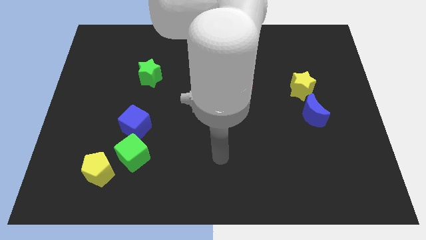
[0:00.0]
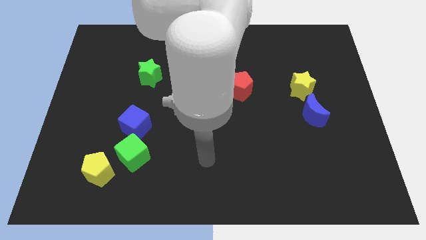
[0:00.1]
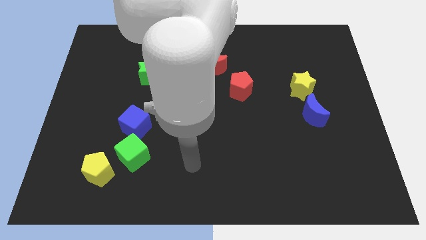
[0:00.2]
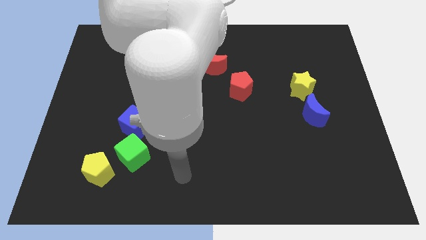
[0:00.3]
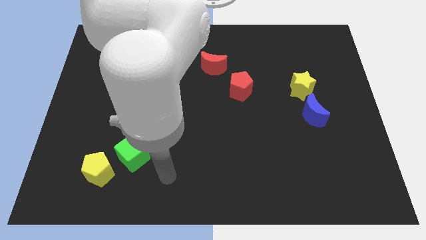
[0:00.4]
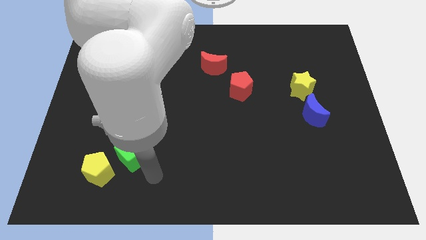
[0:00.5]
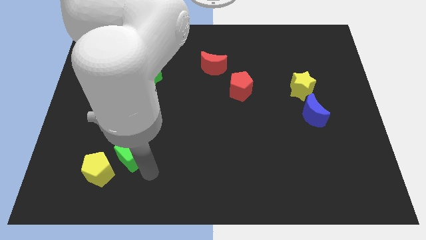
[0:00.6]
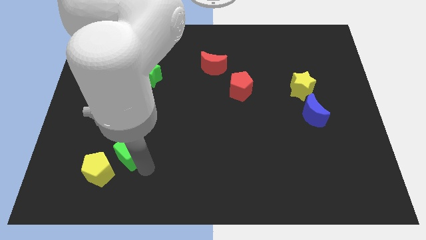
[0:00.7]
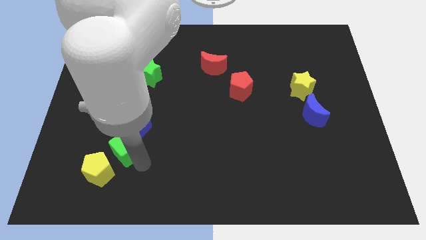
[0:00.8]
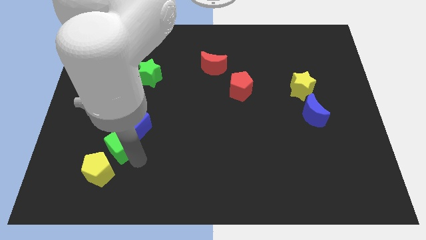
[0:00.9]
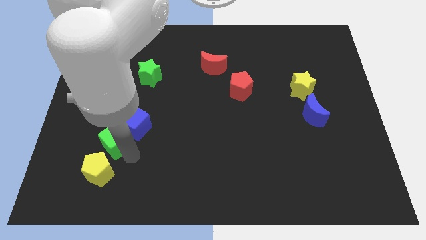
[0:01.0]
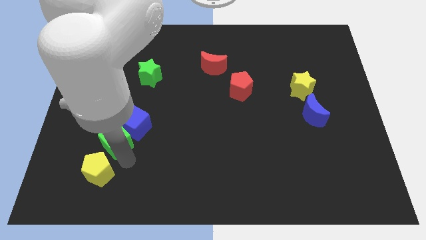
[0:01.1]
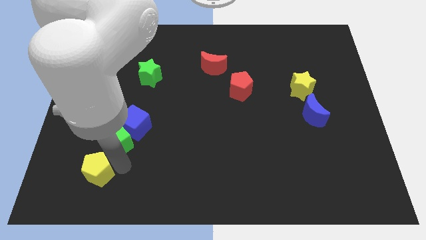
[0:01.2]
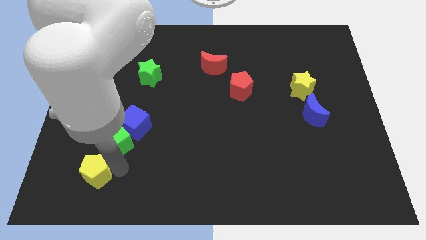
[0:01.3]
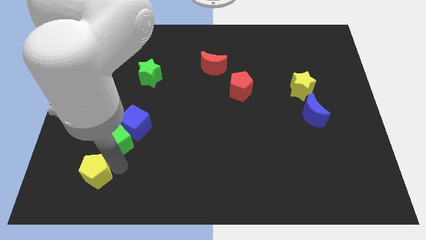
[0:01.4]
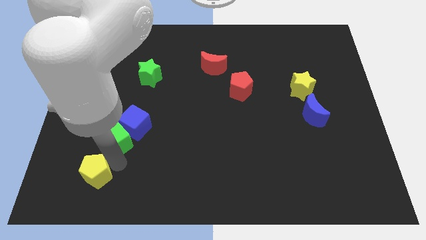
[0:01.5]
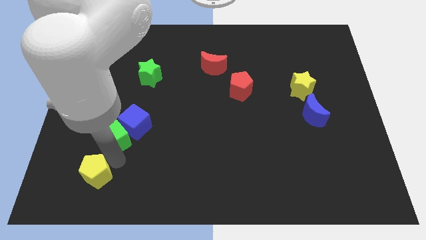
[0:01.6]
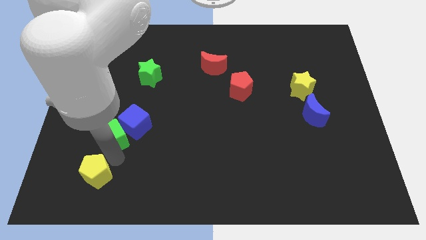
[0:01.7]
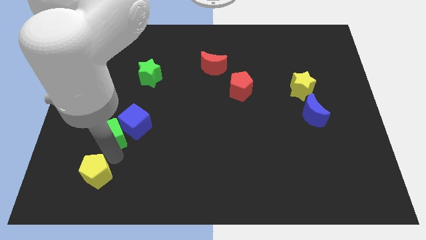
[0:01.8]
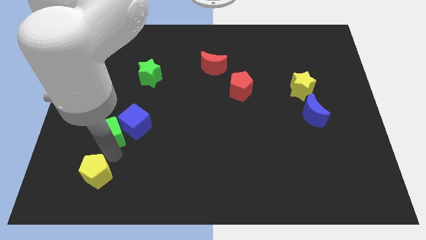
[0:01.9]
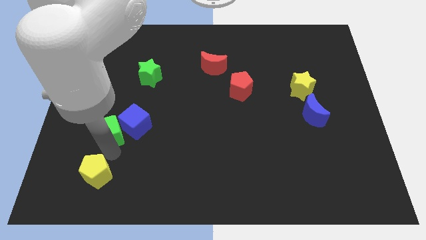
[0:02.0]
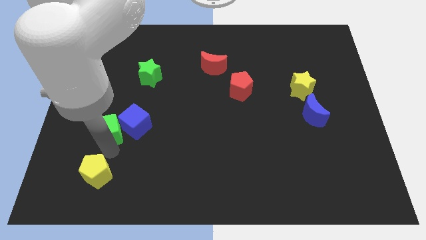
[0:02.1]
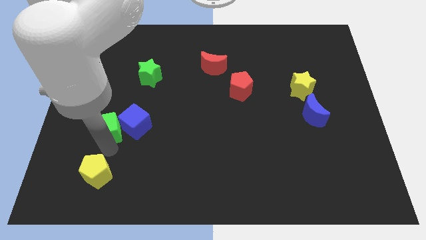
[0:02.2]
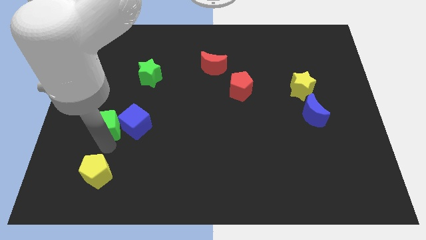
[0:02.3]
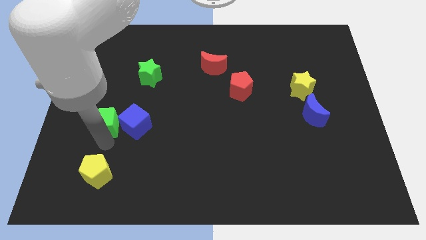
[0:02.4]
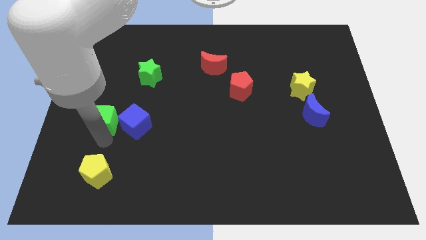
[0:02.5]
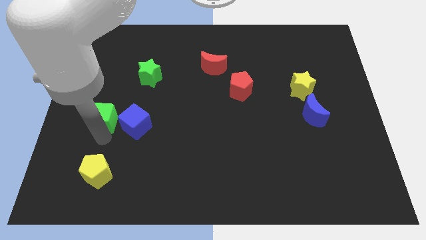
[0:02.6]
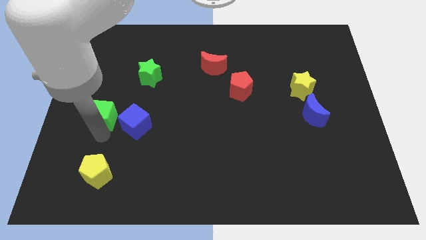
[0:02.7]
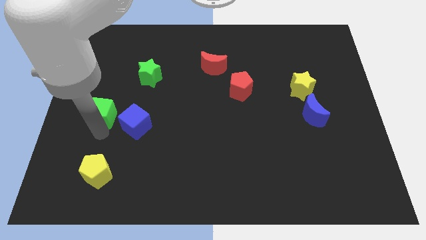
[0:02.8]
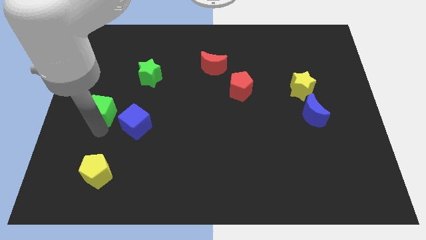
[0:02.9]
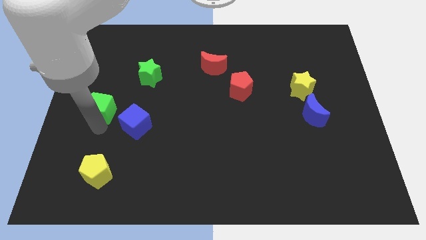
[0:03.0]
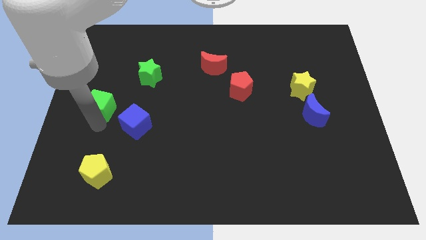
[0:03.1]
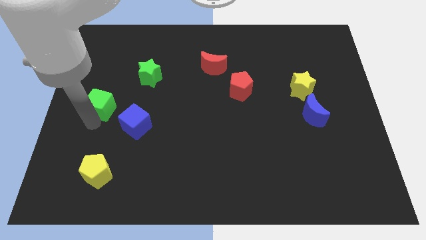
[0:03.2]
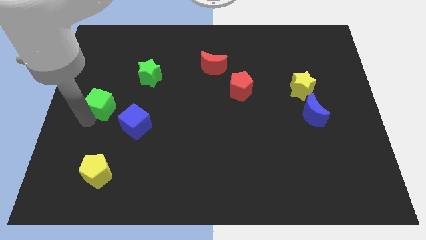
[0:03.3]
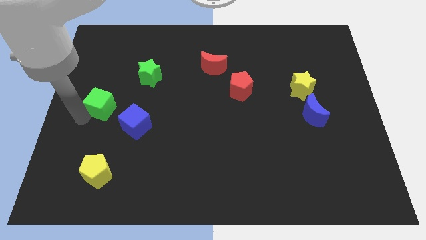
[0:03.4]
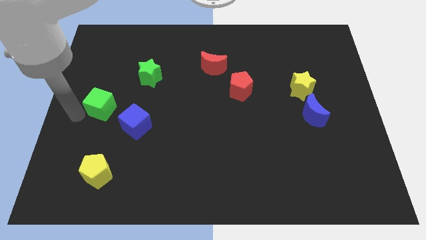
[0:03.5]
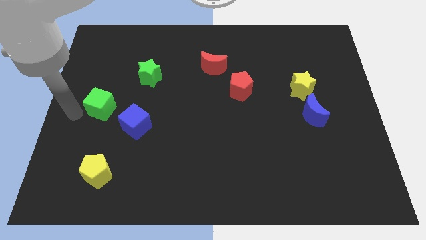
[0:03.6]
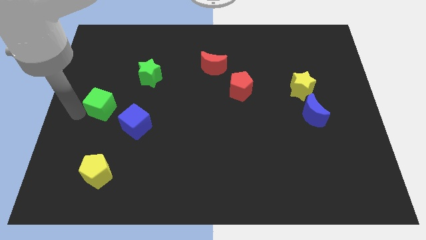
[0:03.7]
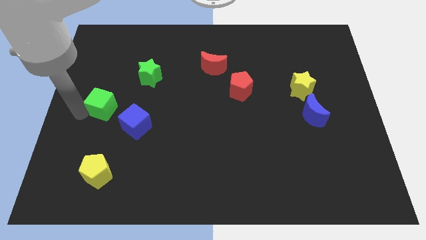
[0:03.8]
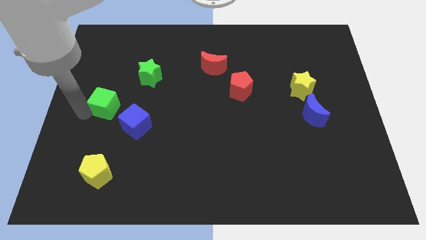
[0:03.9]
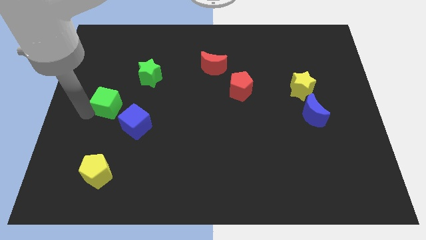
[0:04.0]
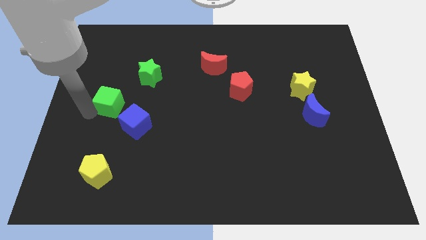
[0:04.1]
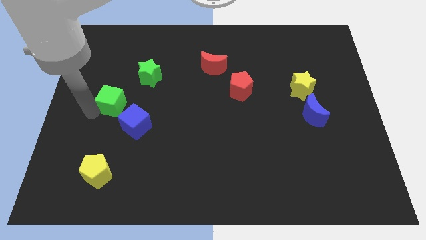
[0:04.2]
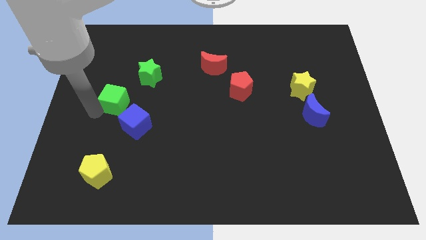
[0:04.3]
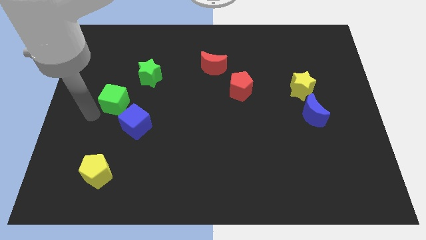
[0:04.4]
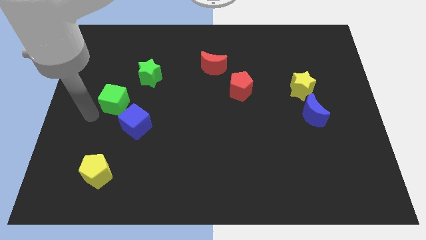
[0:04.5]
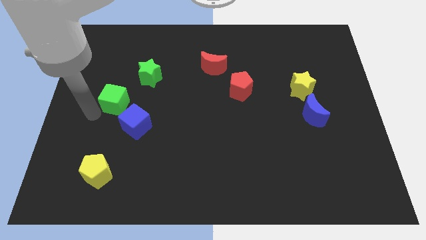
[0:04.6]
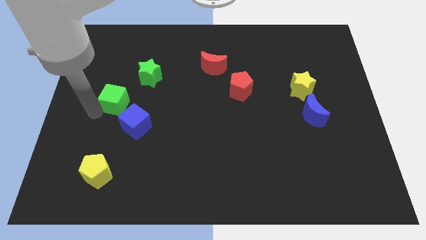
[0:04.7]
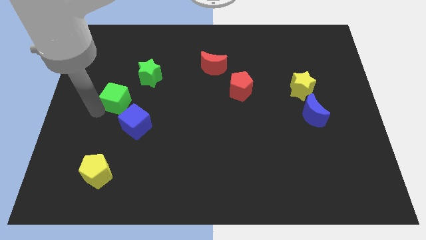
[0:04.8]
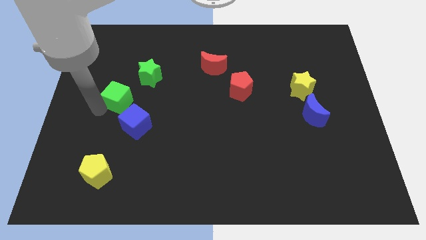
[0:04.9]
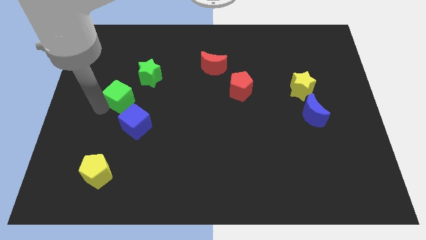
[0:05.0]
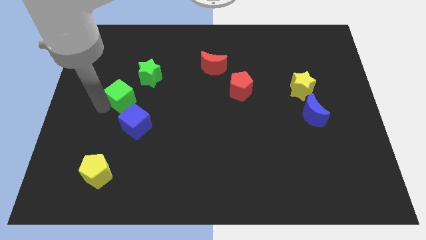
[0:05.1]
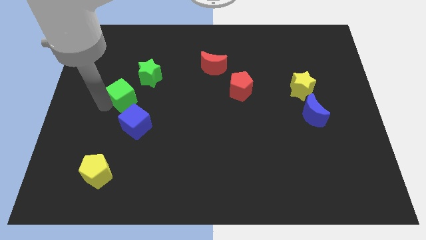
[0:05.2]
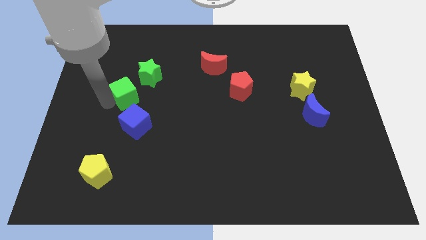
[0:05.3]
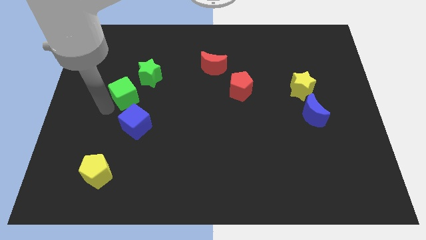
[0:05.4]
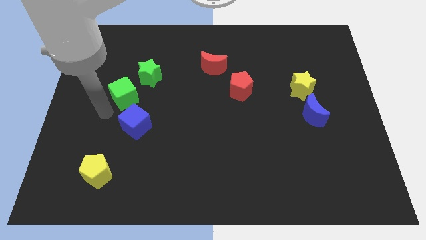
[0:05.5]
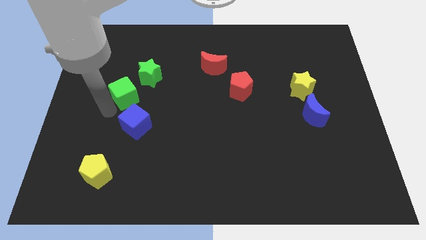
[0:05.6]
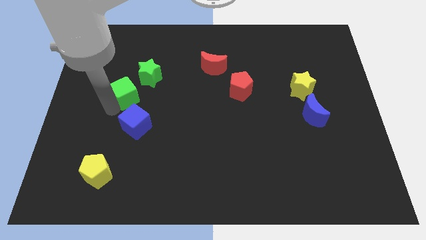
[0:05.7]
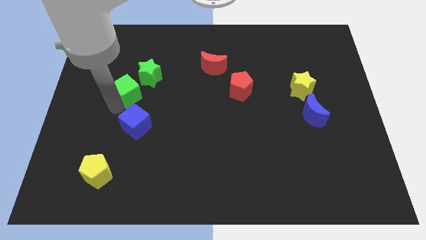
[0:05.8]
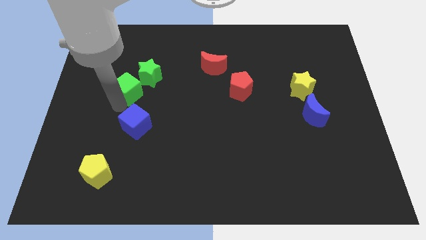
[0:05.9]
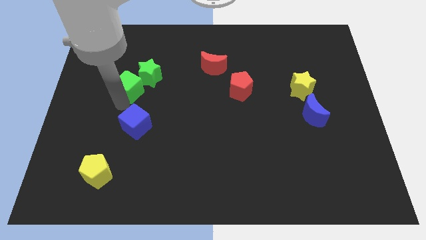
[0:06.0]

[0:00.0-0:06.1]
push the green cube close to the green star

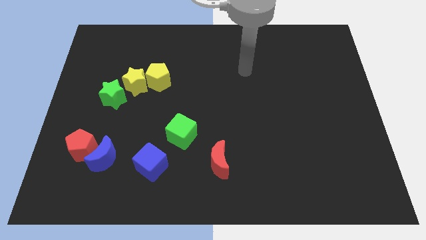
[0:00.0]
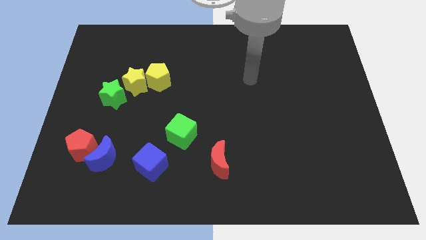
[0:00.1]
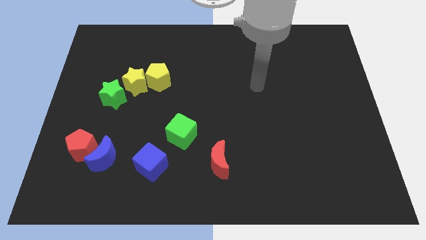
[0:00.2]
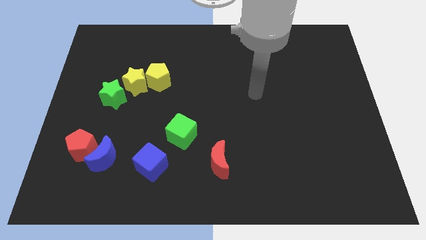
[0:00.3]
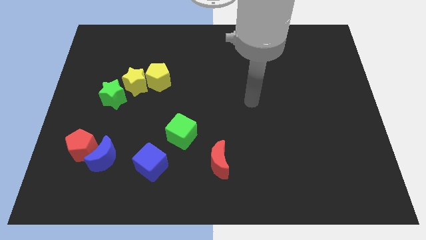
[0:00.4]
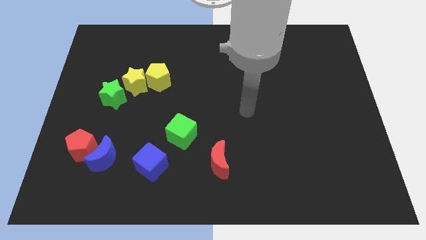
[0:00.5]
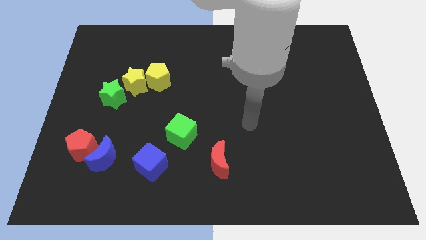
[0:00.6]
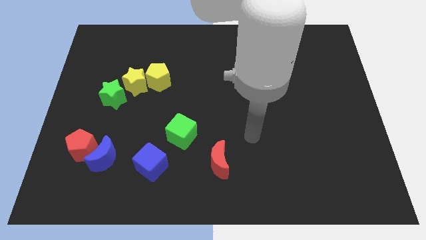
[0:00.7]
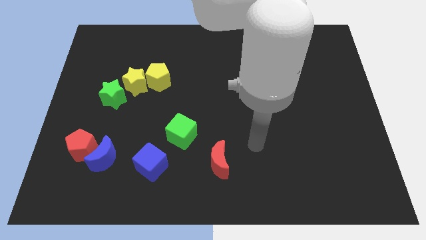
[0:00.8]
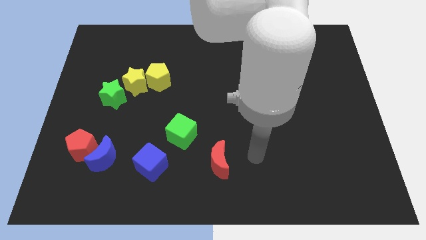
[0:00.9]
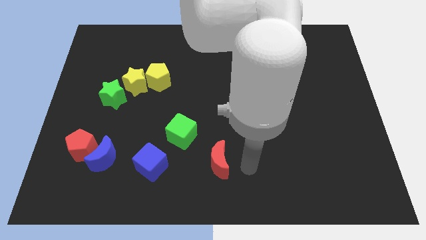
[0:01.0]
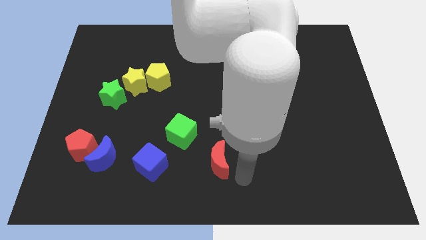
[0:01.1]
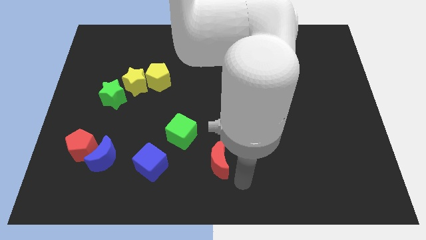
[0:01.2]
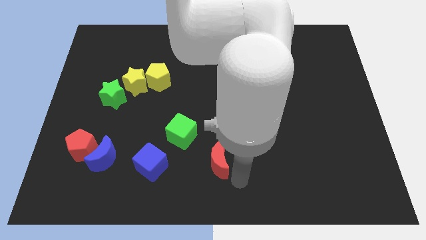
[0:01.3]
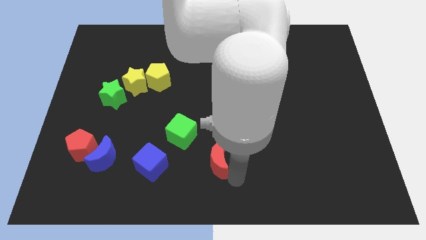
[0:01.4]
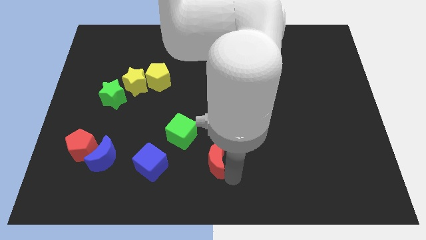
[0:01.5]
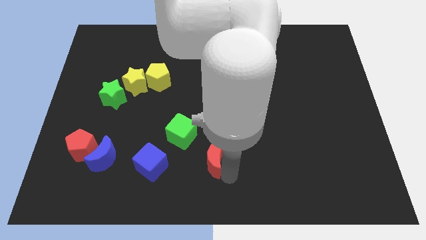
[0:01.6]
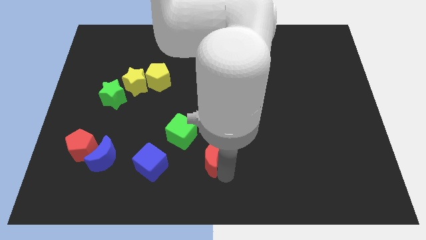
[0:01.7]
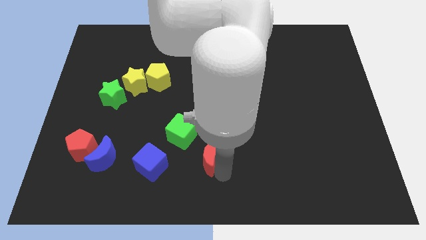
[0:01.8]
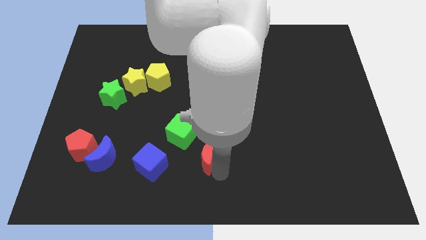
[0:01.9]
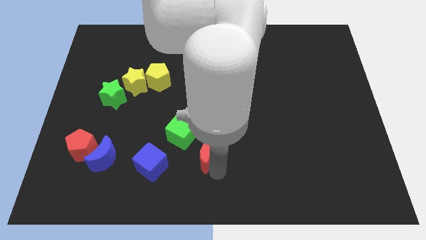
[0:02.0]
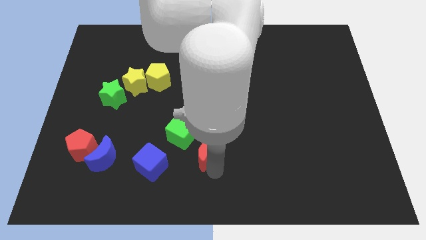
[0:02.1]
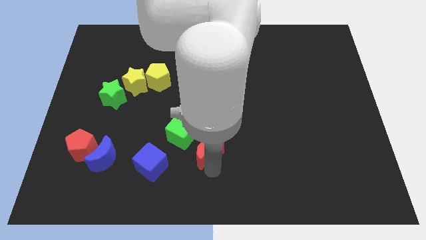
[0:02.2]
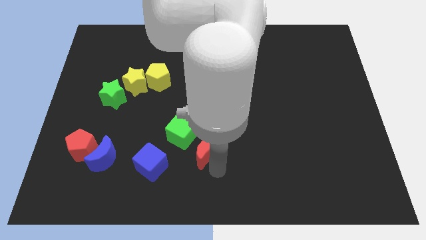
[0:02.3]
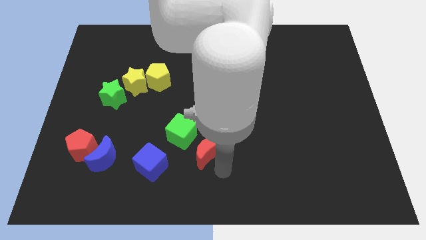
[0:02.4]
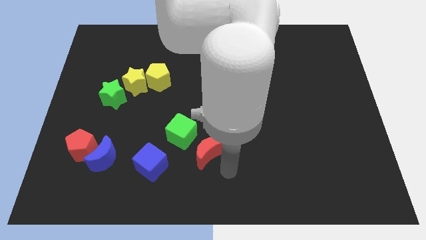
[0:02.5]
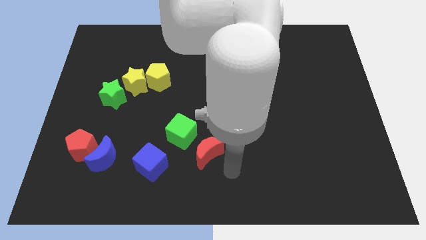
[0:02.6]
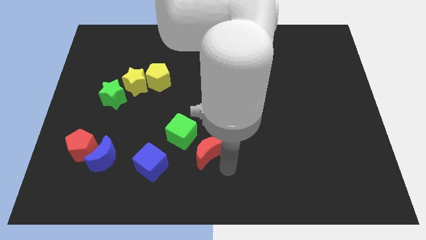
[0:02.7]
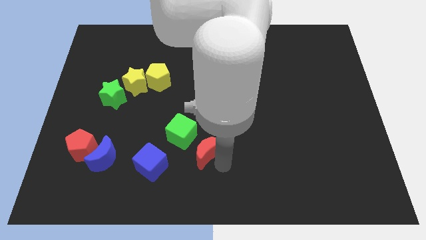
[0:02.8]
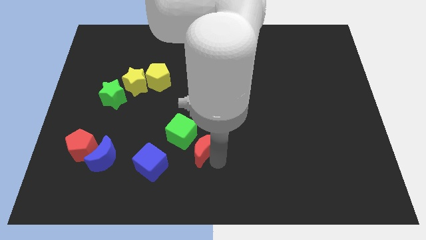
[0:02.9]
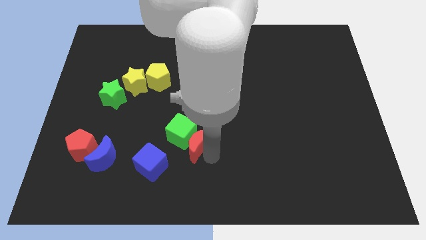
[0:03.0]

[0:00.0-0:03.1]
put the red moon towards the green cube
